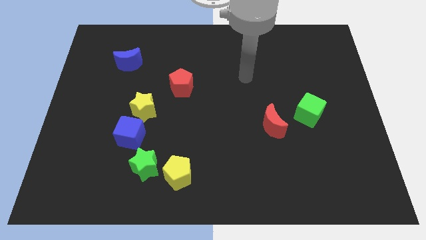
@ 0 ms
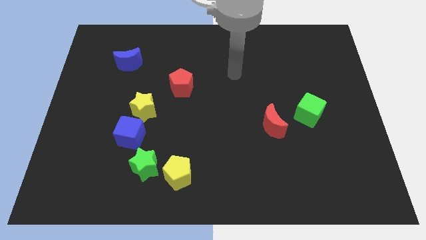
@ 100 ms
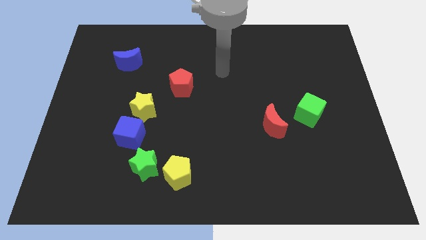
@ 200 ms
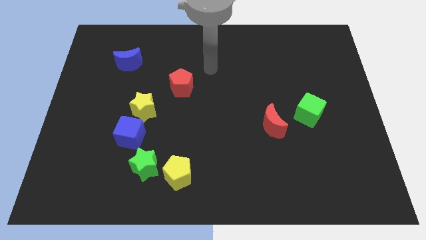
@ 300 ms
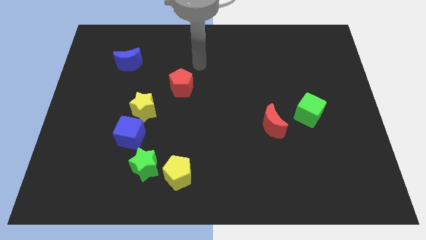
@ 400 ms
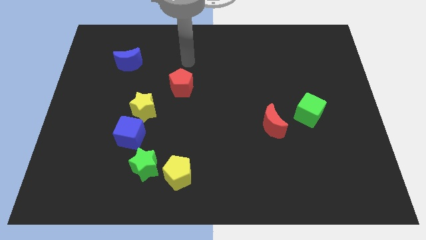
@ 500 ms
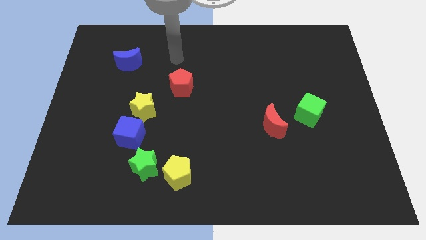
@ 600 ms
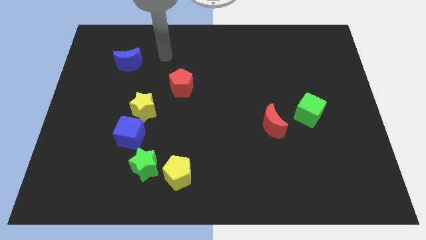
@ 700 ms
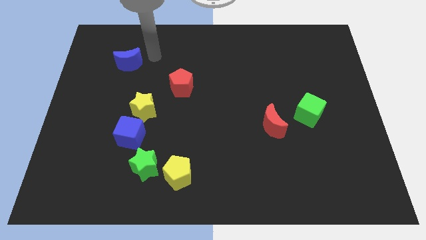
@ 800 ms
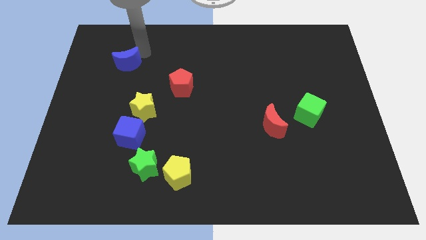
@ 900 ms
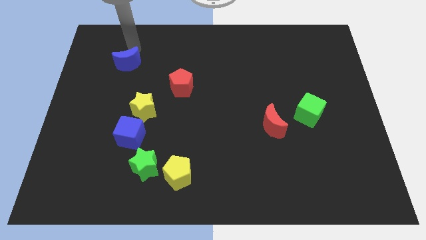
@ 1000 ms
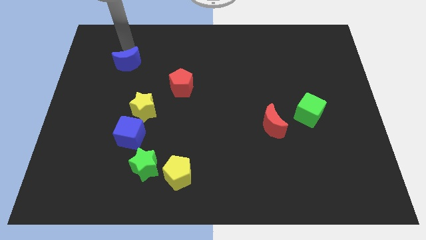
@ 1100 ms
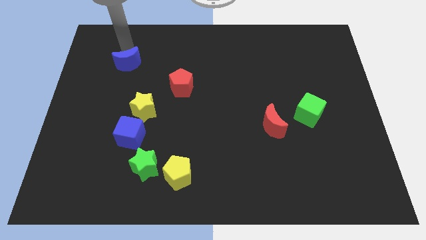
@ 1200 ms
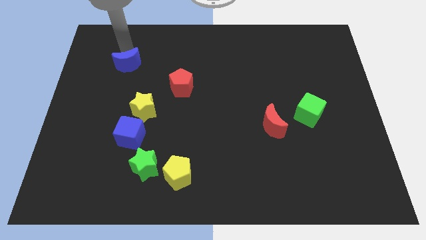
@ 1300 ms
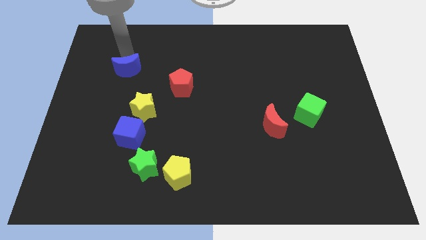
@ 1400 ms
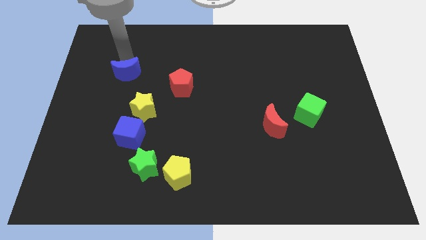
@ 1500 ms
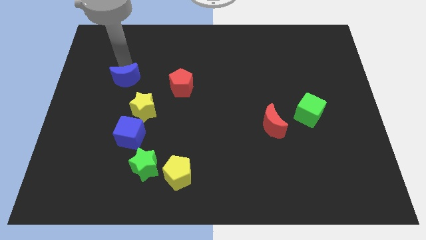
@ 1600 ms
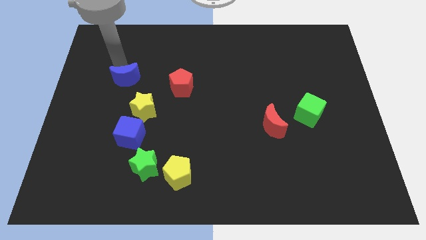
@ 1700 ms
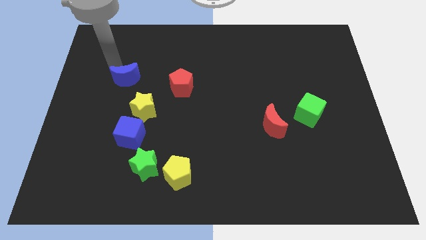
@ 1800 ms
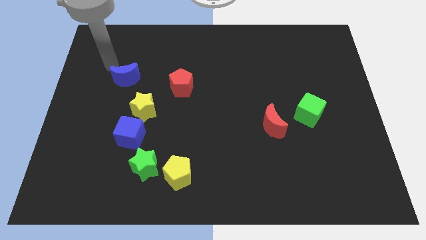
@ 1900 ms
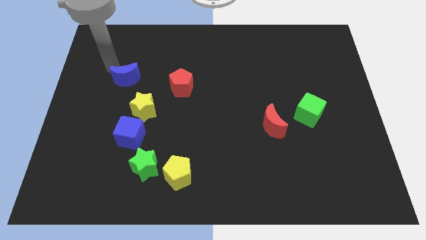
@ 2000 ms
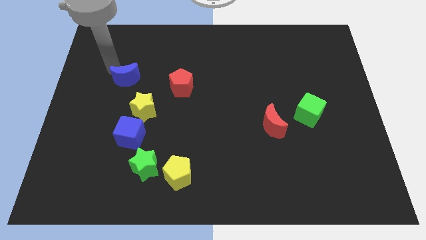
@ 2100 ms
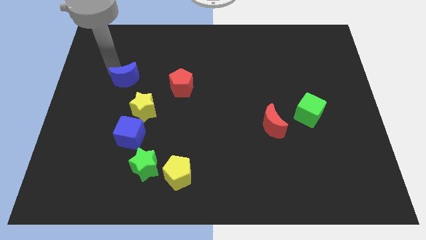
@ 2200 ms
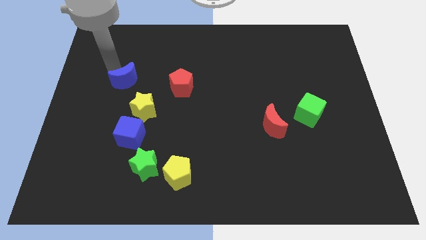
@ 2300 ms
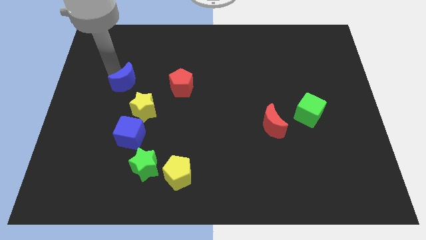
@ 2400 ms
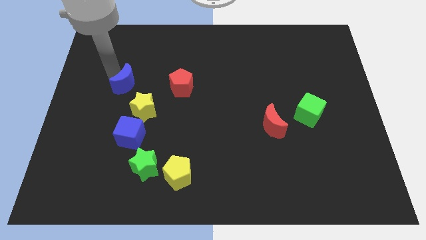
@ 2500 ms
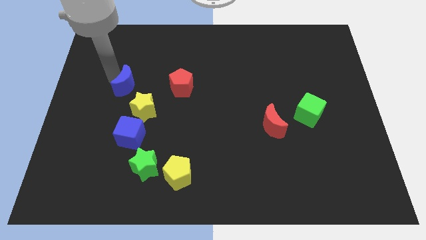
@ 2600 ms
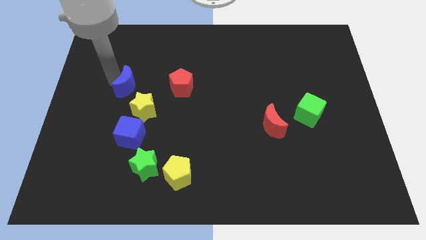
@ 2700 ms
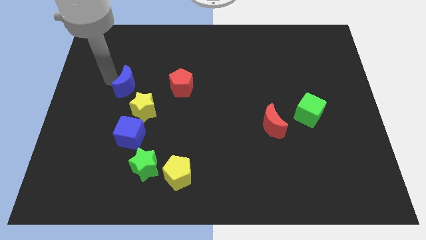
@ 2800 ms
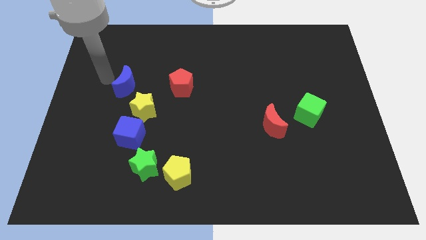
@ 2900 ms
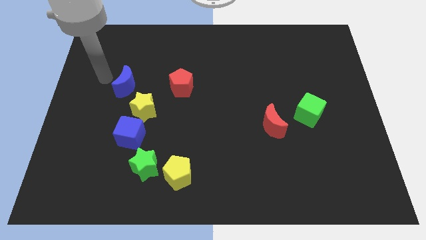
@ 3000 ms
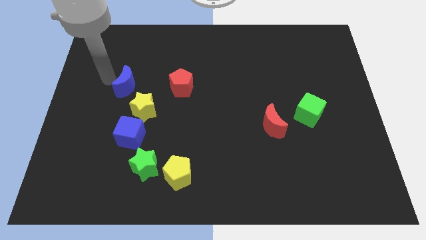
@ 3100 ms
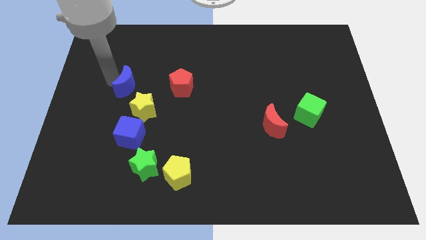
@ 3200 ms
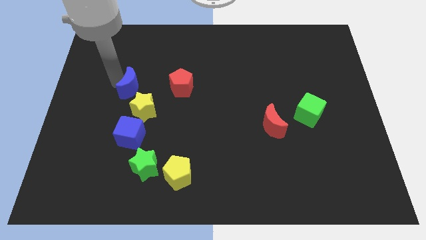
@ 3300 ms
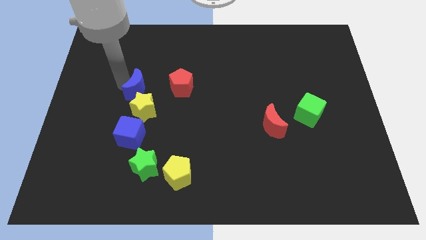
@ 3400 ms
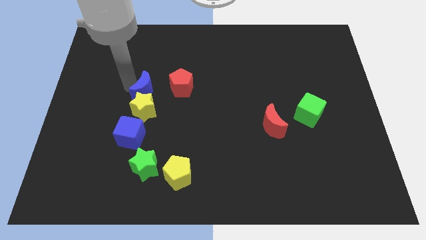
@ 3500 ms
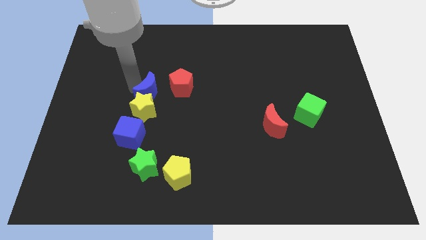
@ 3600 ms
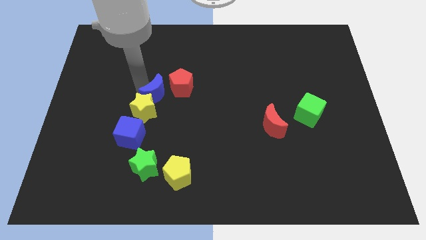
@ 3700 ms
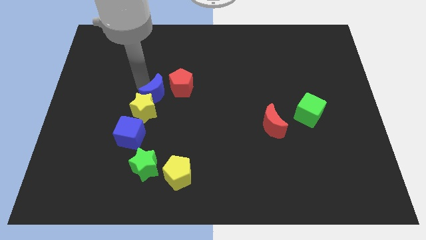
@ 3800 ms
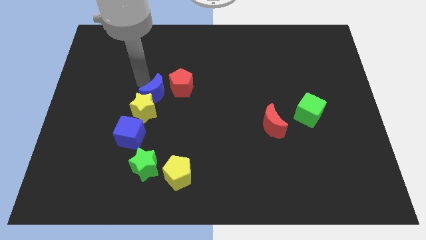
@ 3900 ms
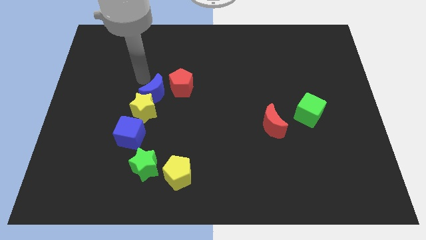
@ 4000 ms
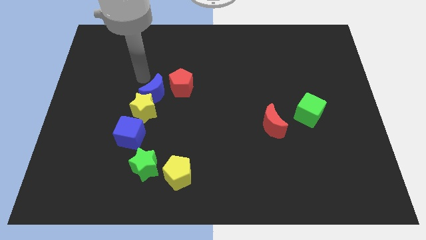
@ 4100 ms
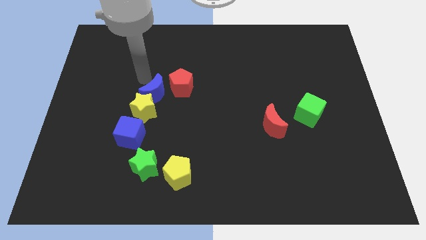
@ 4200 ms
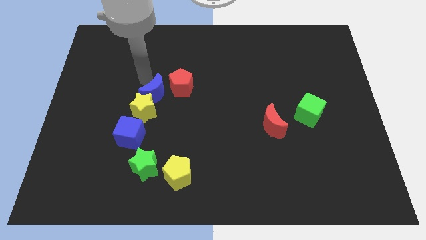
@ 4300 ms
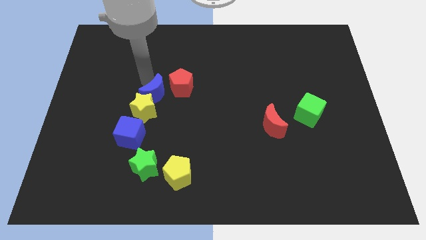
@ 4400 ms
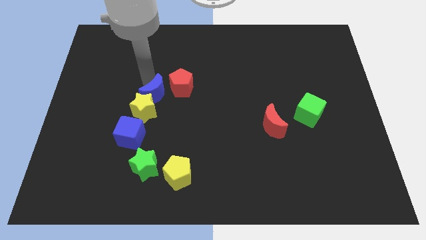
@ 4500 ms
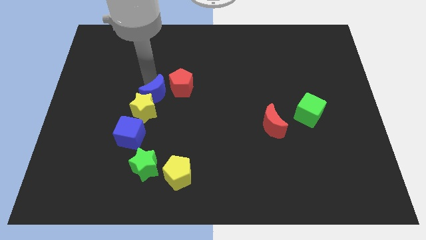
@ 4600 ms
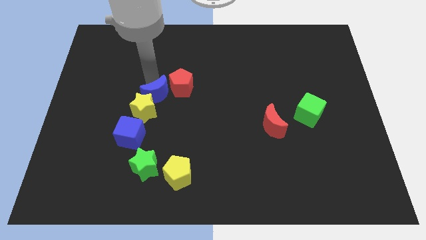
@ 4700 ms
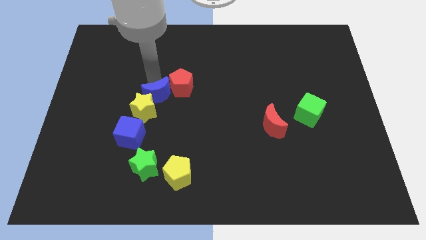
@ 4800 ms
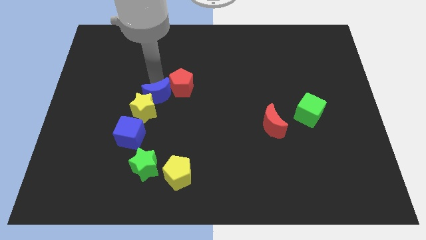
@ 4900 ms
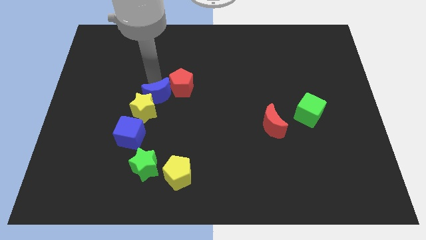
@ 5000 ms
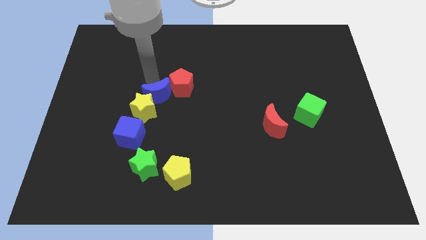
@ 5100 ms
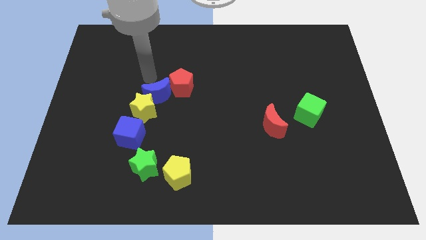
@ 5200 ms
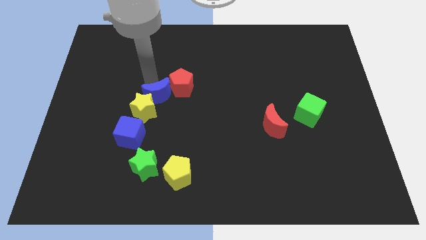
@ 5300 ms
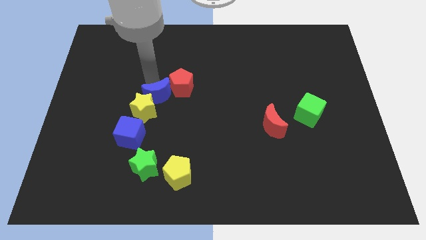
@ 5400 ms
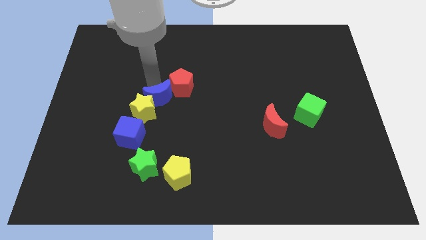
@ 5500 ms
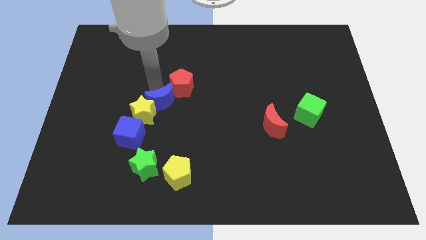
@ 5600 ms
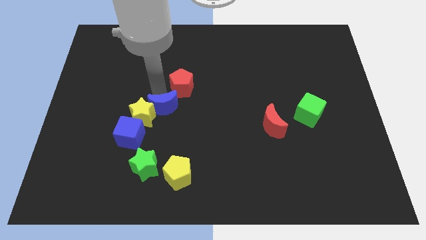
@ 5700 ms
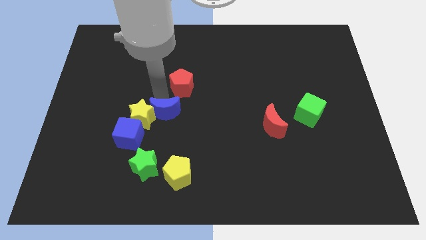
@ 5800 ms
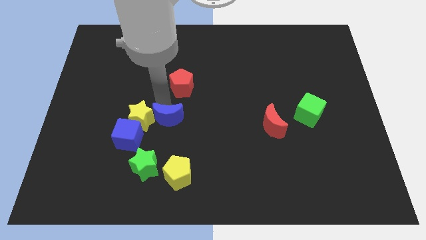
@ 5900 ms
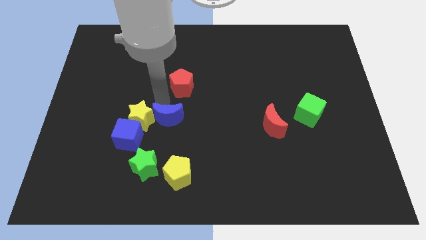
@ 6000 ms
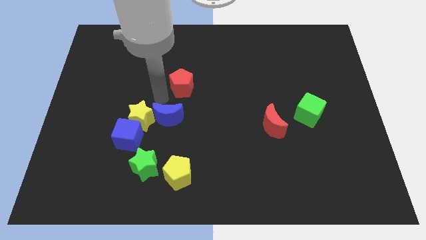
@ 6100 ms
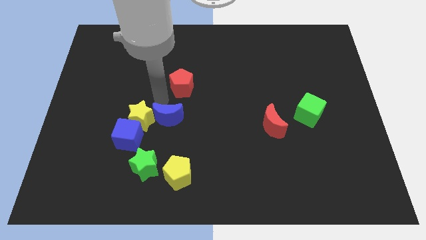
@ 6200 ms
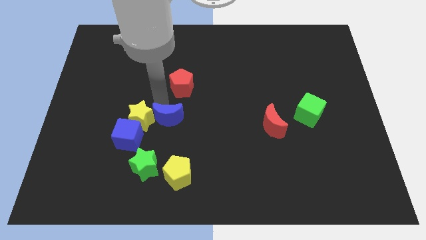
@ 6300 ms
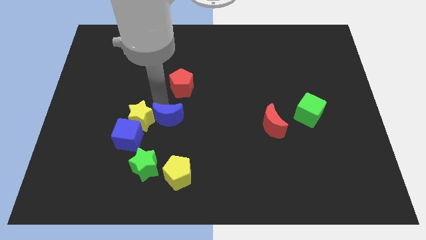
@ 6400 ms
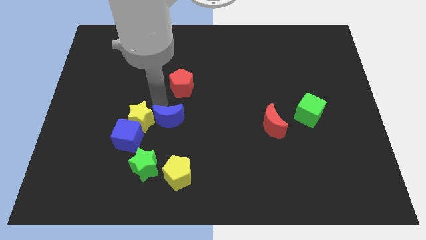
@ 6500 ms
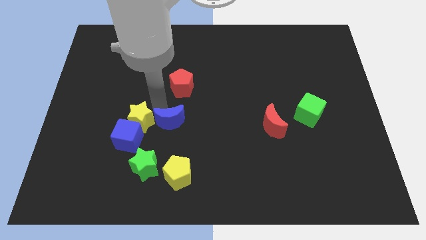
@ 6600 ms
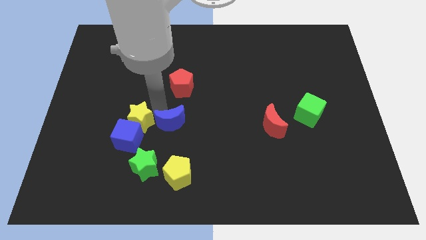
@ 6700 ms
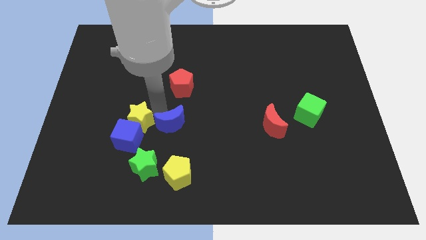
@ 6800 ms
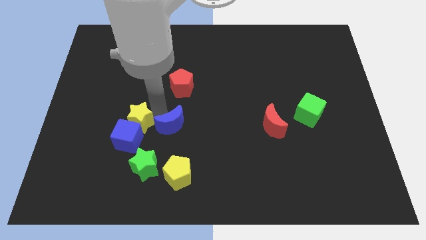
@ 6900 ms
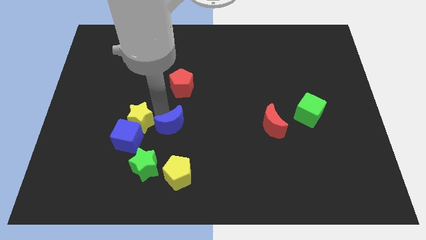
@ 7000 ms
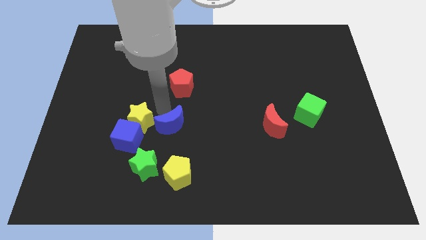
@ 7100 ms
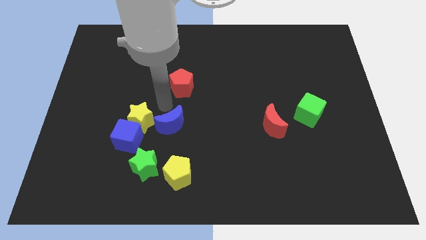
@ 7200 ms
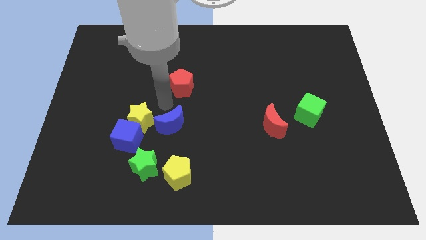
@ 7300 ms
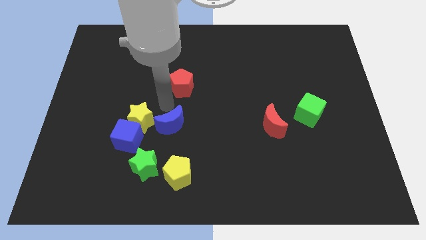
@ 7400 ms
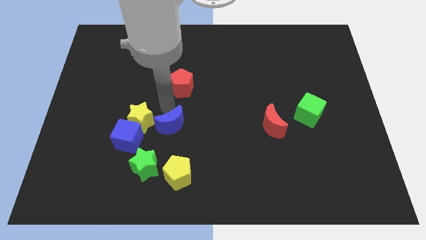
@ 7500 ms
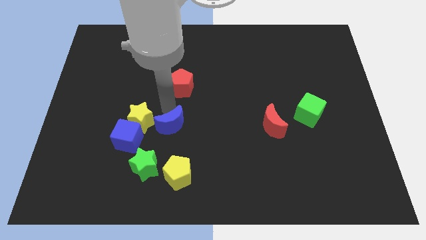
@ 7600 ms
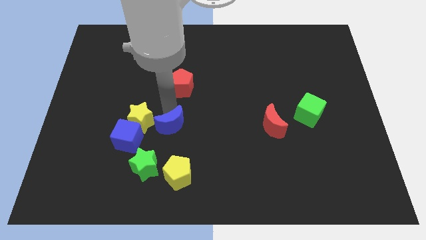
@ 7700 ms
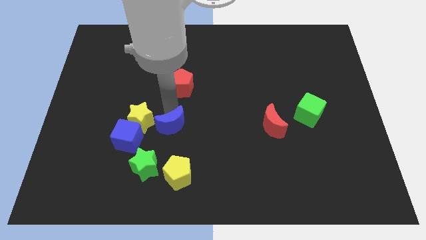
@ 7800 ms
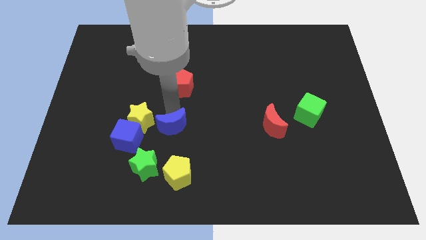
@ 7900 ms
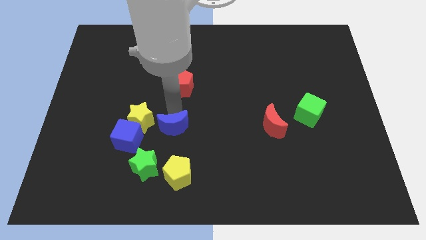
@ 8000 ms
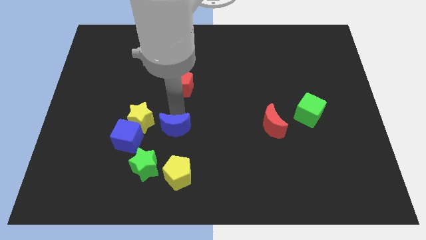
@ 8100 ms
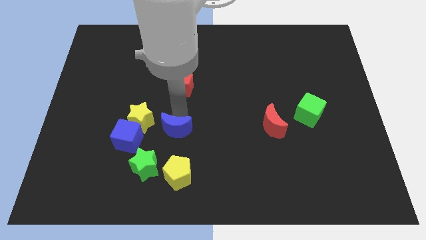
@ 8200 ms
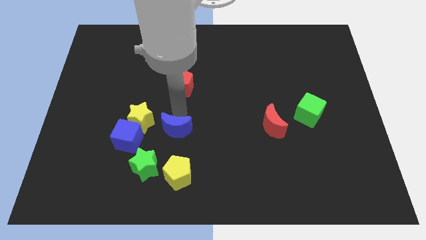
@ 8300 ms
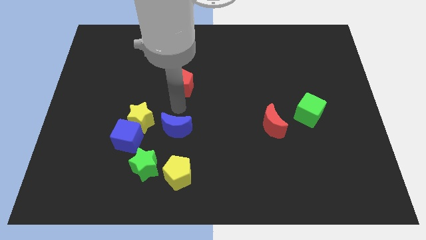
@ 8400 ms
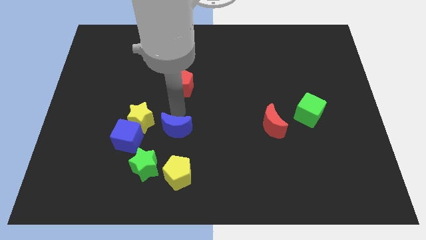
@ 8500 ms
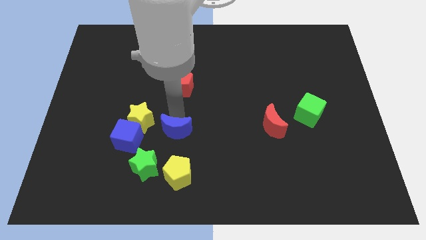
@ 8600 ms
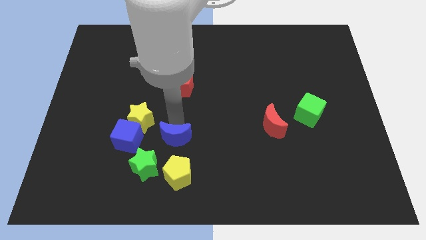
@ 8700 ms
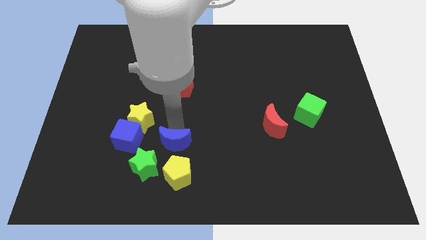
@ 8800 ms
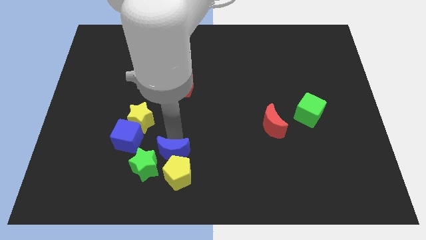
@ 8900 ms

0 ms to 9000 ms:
put the blue moon towards the yellow pentagon
